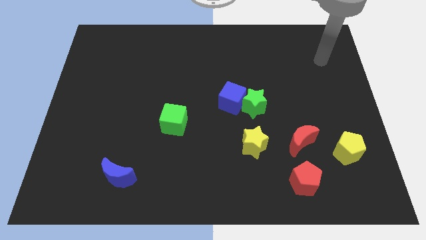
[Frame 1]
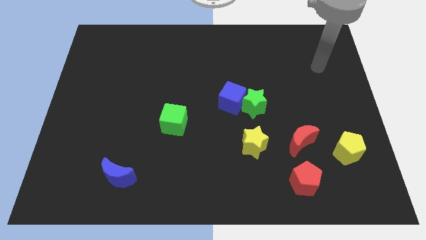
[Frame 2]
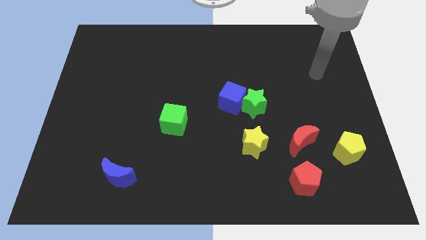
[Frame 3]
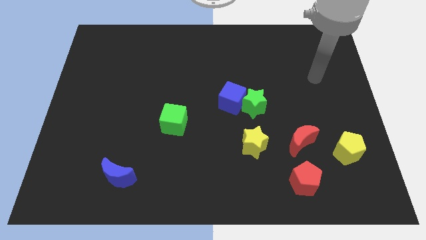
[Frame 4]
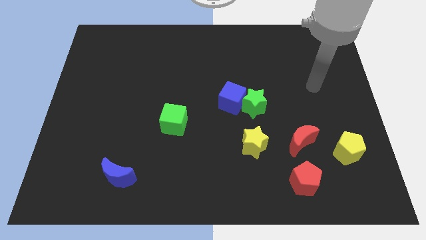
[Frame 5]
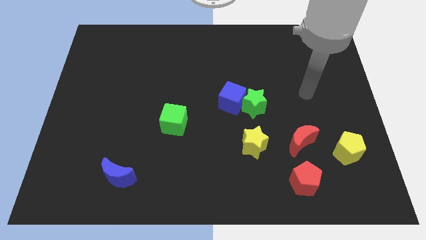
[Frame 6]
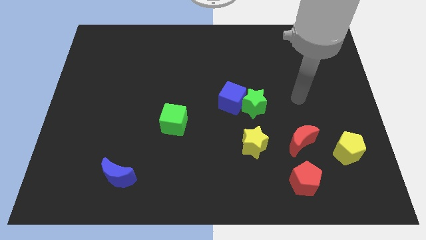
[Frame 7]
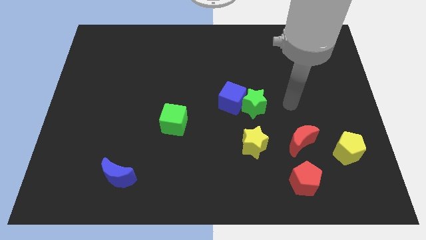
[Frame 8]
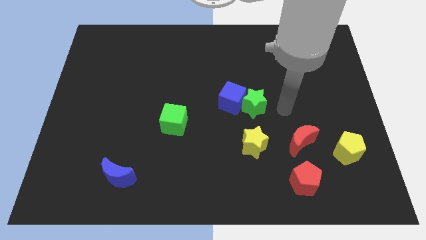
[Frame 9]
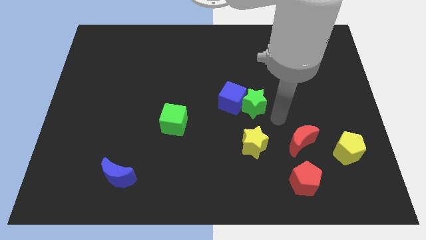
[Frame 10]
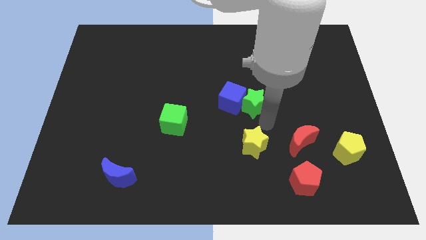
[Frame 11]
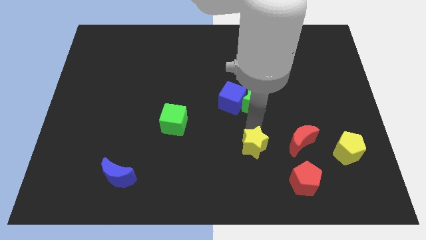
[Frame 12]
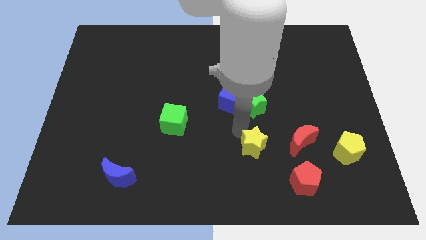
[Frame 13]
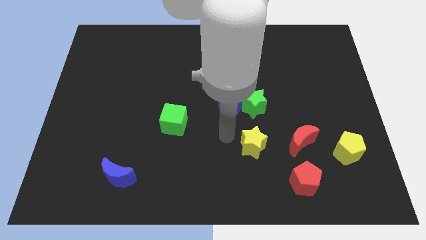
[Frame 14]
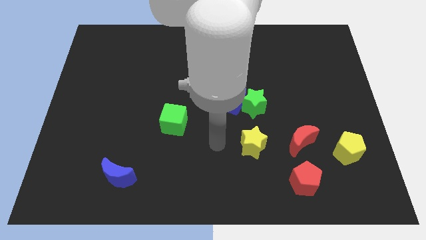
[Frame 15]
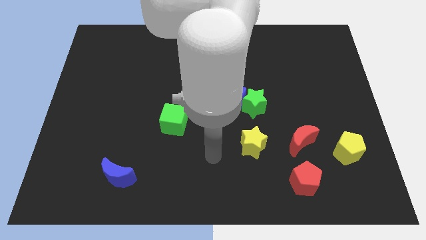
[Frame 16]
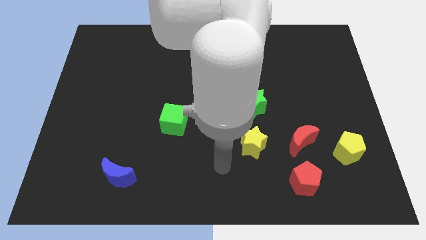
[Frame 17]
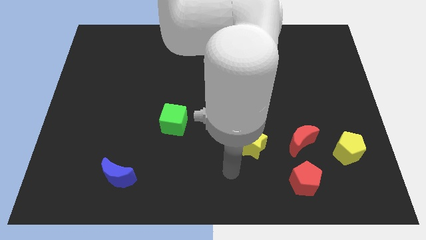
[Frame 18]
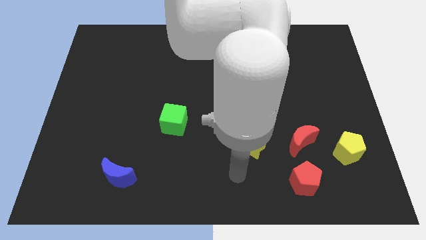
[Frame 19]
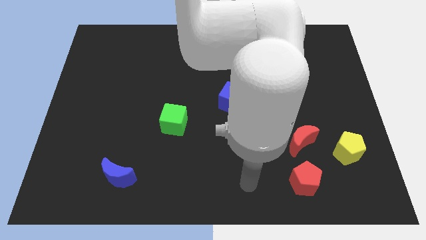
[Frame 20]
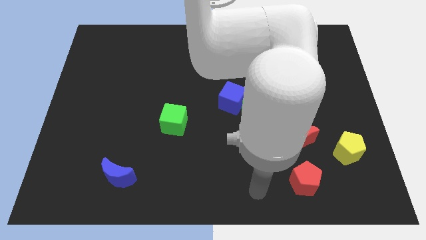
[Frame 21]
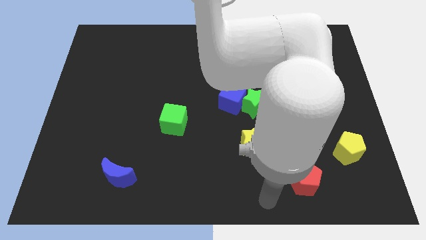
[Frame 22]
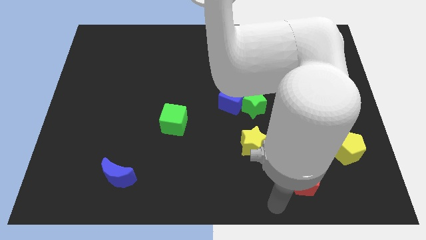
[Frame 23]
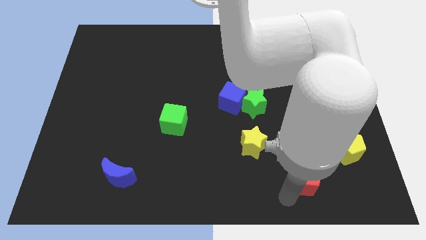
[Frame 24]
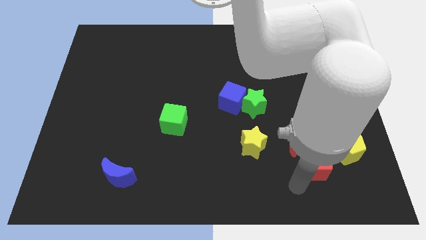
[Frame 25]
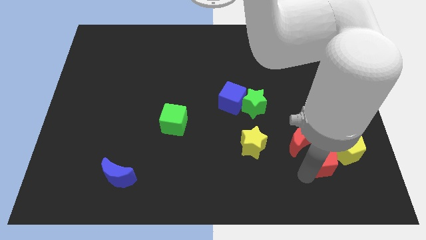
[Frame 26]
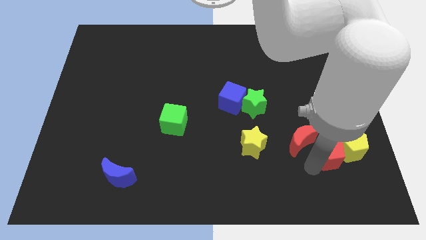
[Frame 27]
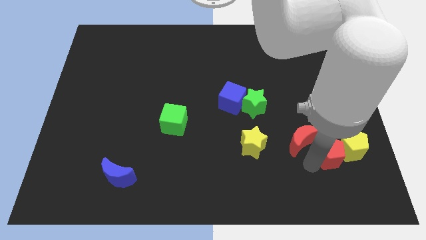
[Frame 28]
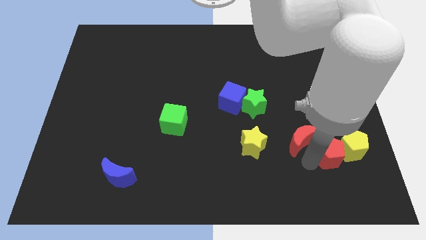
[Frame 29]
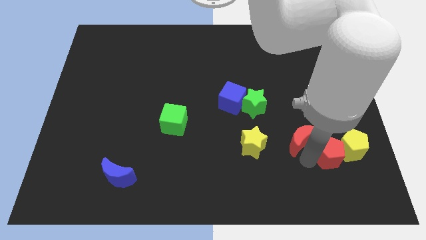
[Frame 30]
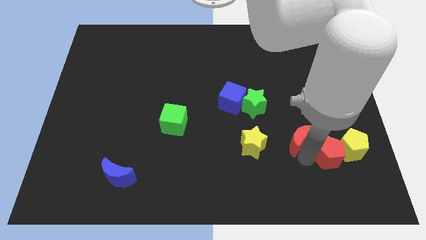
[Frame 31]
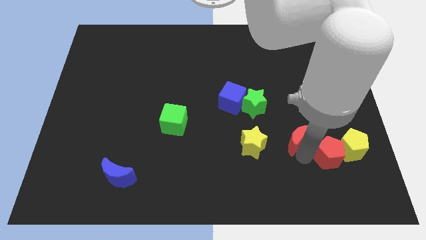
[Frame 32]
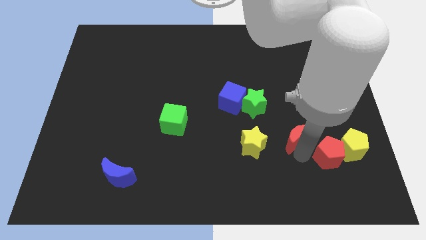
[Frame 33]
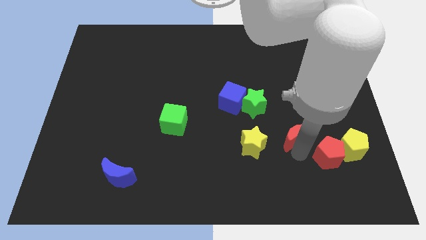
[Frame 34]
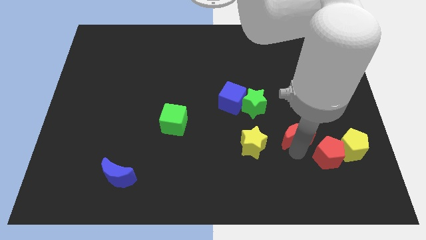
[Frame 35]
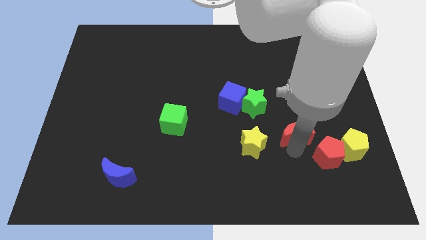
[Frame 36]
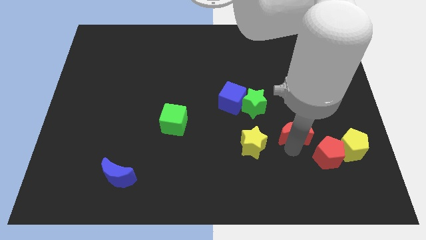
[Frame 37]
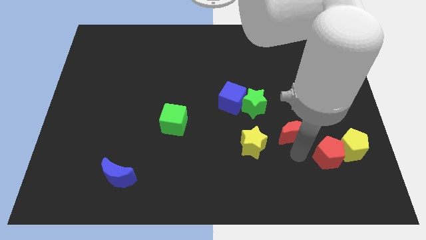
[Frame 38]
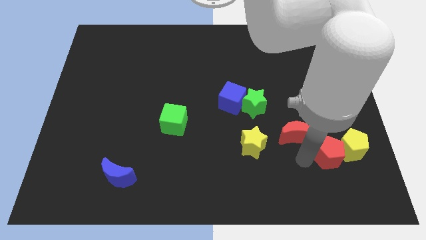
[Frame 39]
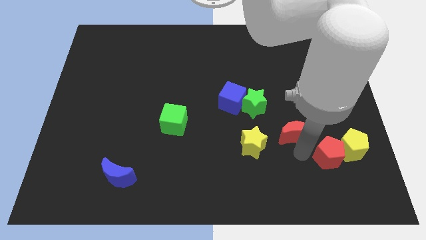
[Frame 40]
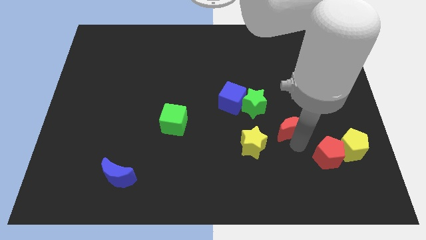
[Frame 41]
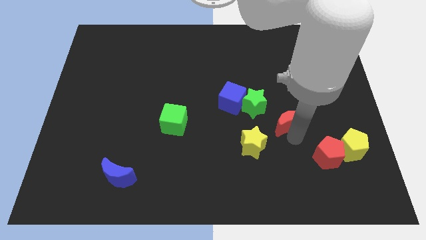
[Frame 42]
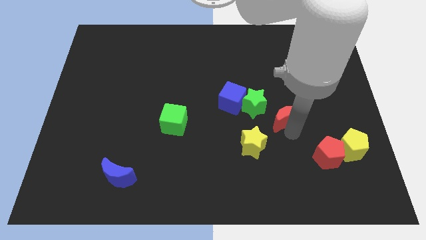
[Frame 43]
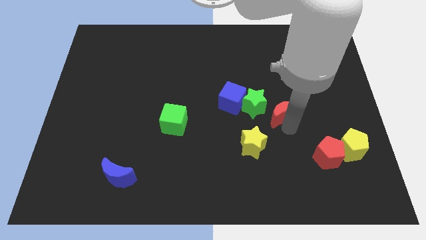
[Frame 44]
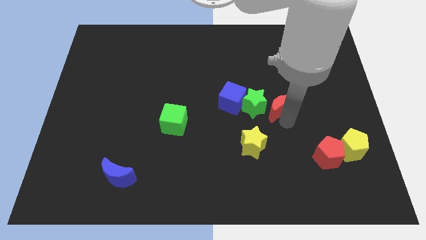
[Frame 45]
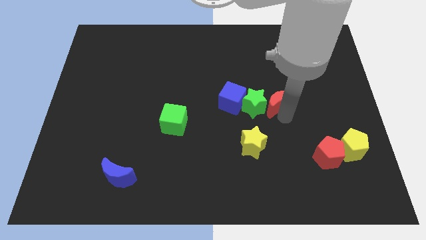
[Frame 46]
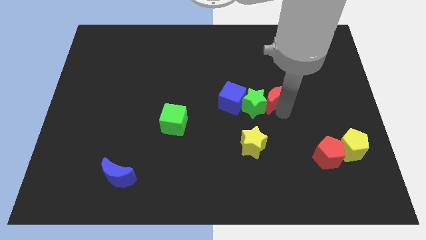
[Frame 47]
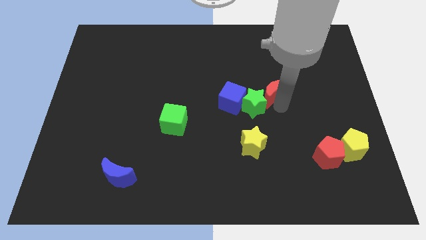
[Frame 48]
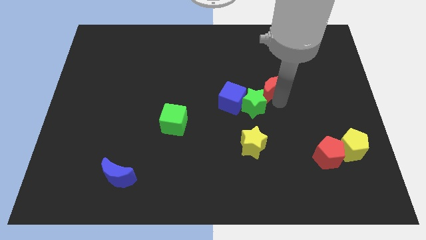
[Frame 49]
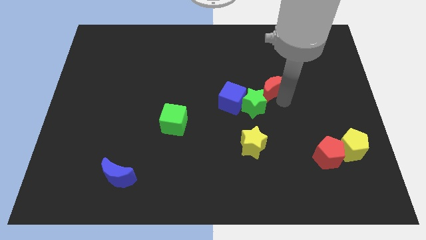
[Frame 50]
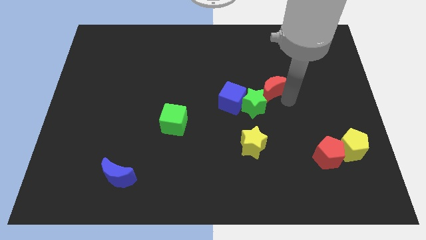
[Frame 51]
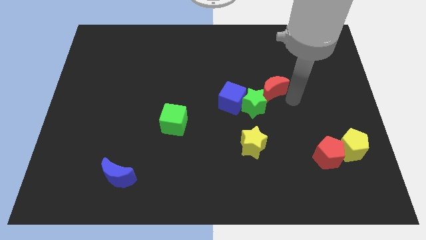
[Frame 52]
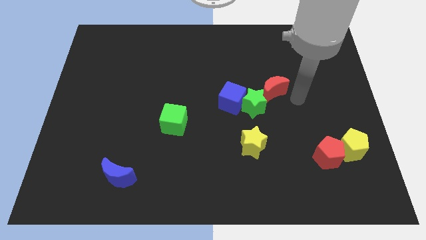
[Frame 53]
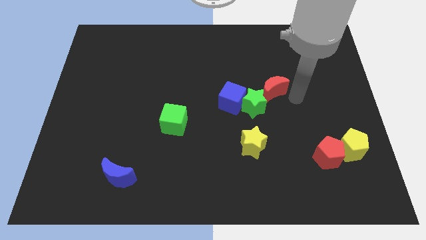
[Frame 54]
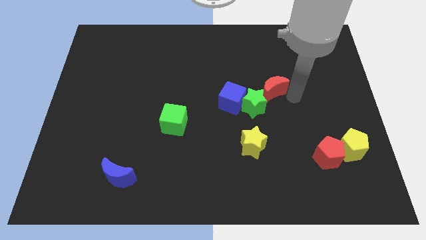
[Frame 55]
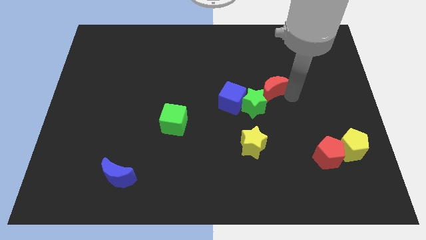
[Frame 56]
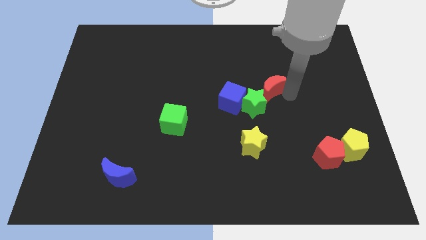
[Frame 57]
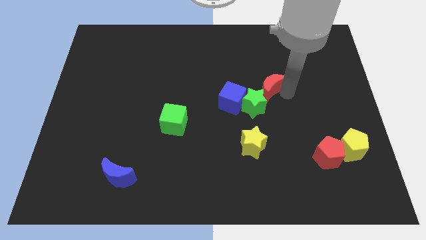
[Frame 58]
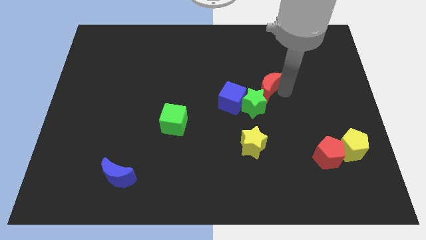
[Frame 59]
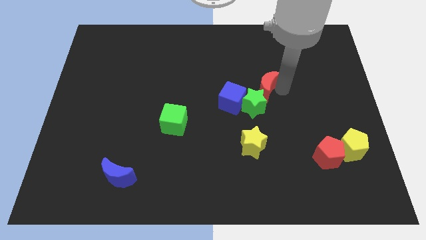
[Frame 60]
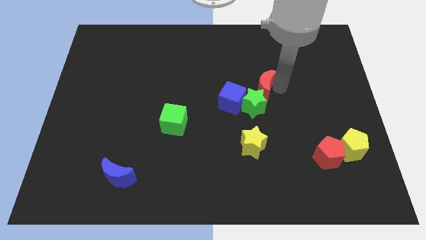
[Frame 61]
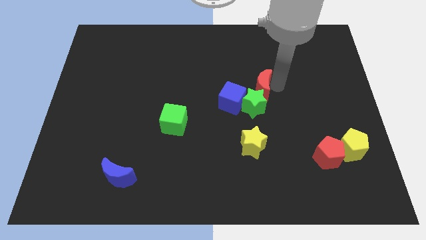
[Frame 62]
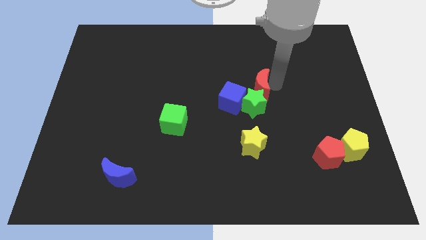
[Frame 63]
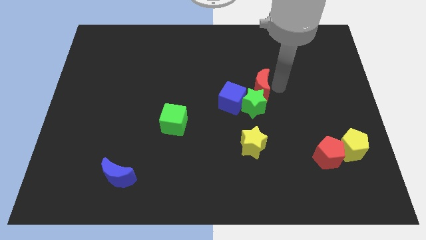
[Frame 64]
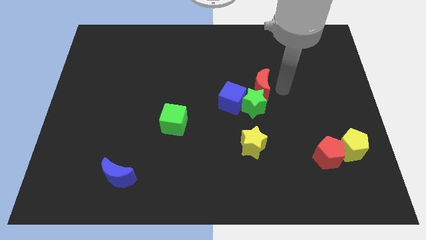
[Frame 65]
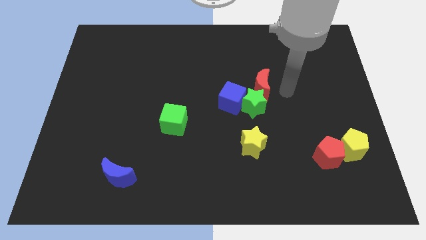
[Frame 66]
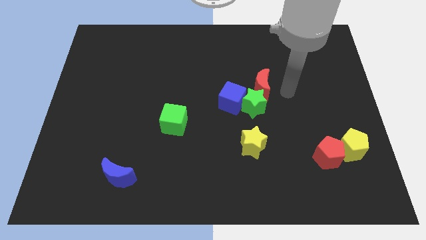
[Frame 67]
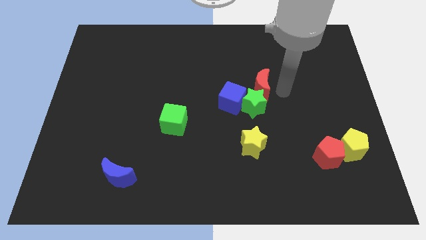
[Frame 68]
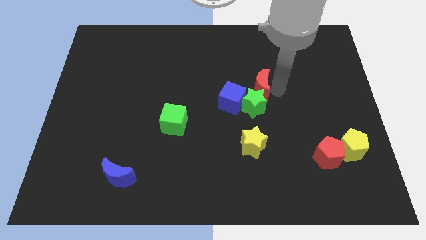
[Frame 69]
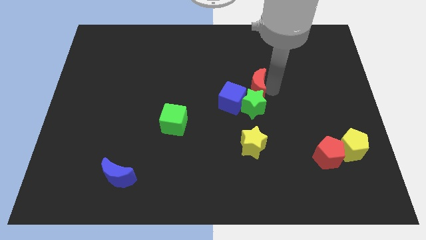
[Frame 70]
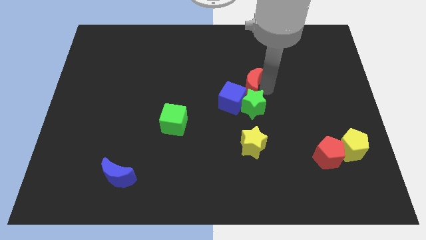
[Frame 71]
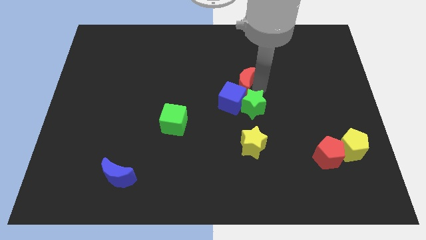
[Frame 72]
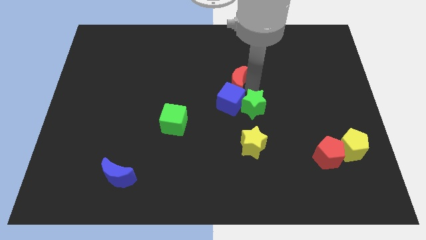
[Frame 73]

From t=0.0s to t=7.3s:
move the red moon up and to the left

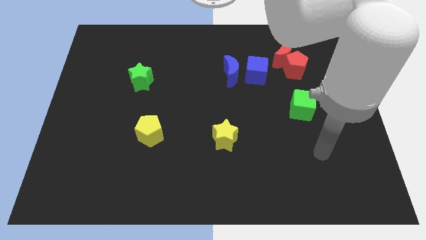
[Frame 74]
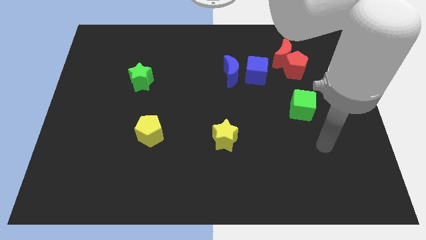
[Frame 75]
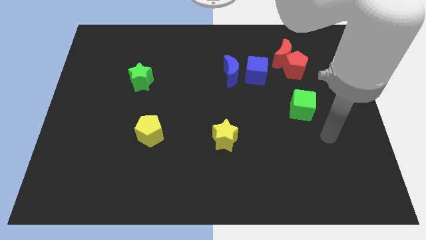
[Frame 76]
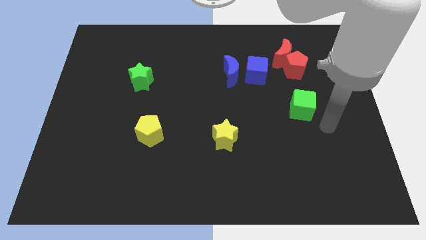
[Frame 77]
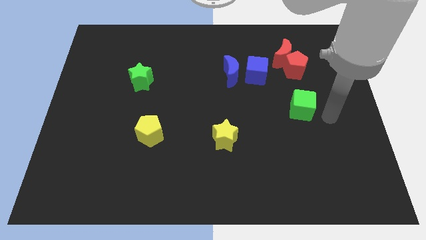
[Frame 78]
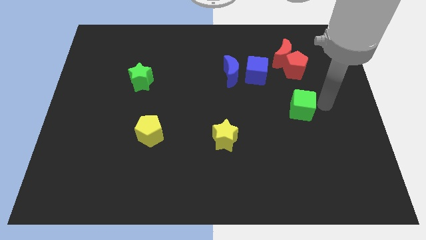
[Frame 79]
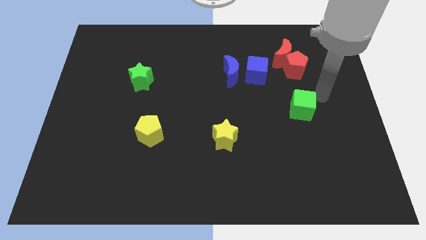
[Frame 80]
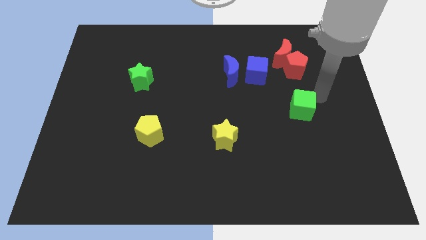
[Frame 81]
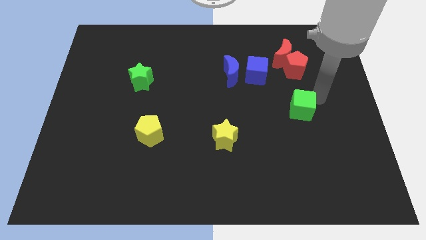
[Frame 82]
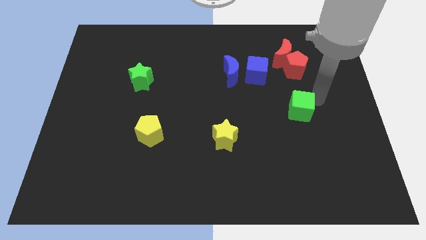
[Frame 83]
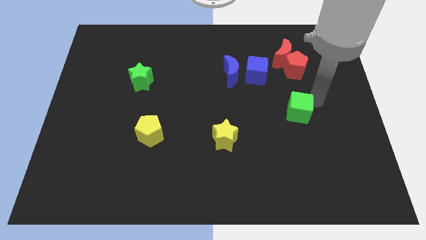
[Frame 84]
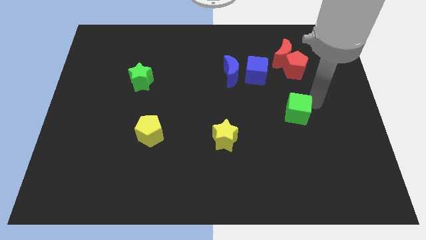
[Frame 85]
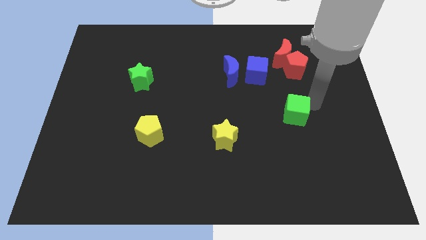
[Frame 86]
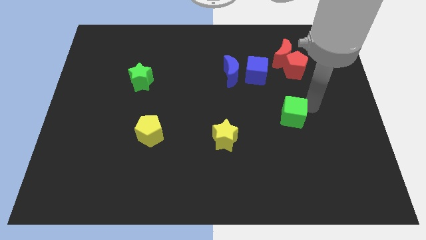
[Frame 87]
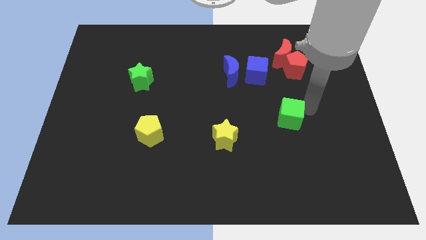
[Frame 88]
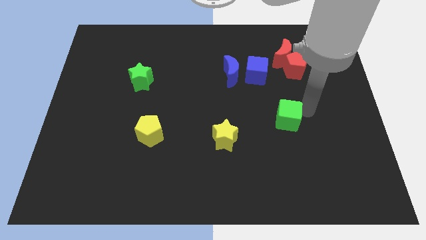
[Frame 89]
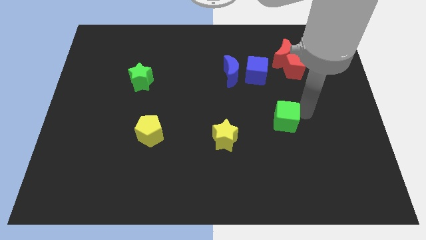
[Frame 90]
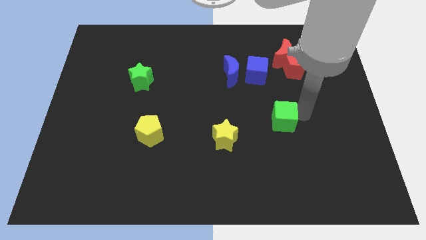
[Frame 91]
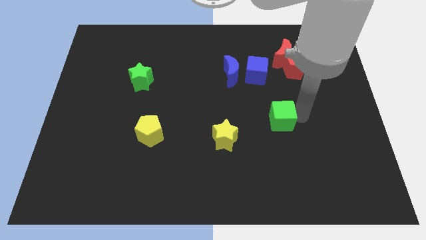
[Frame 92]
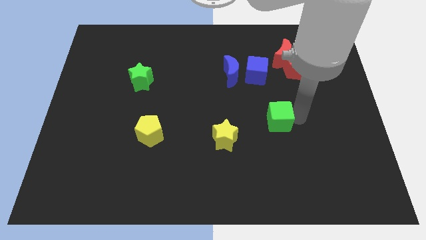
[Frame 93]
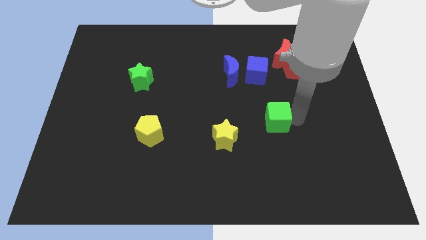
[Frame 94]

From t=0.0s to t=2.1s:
slightly slide the green cube down and then left
